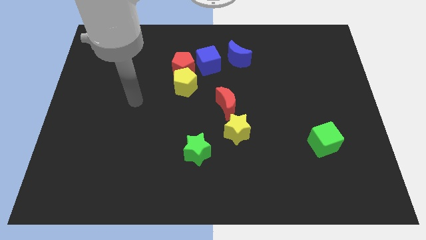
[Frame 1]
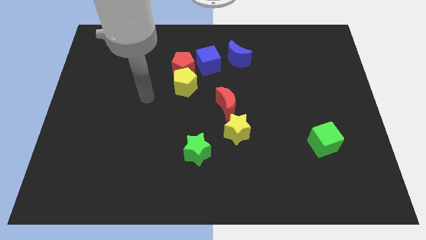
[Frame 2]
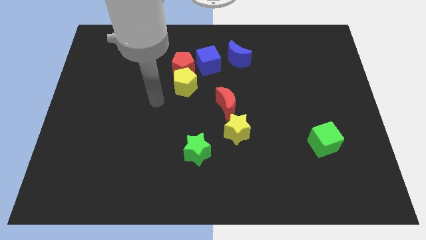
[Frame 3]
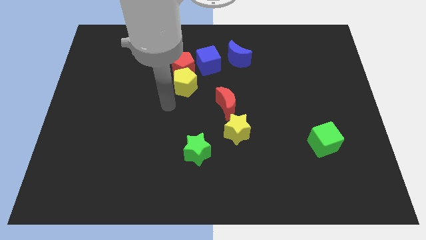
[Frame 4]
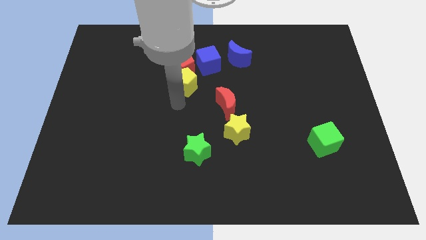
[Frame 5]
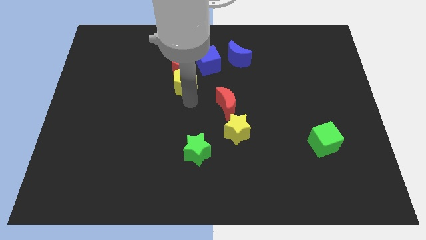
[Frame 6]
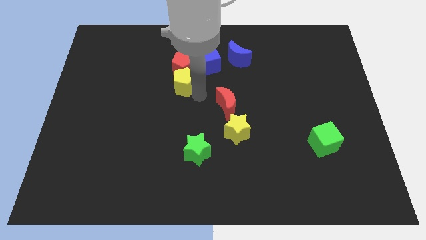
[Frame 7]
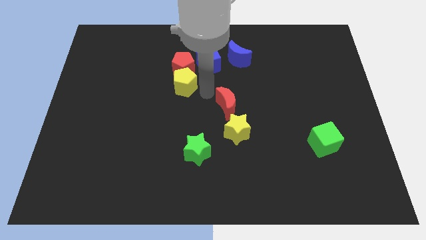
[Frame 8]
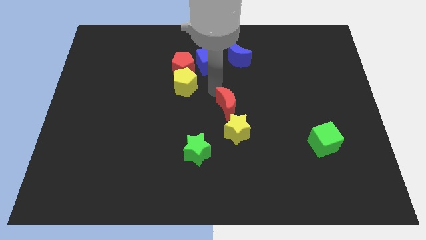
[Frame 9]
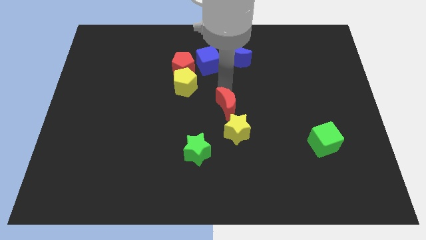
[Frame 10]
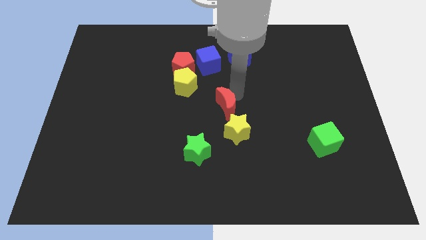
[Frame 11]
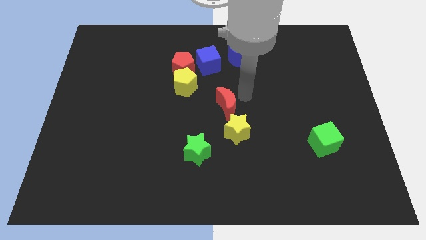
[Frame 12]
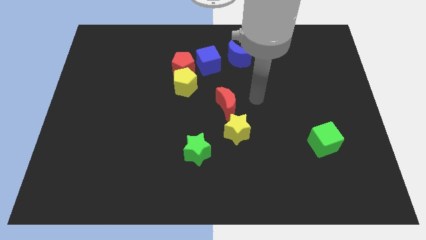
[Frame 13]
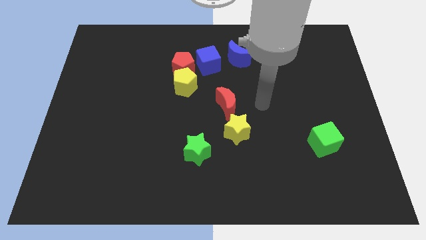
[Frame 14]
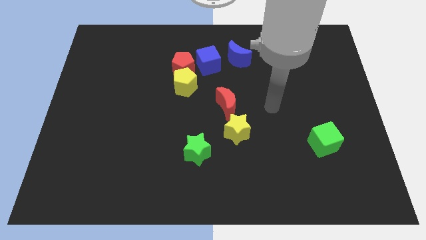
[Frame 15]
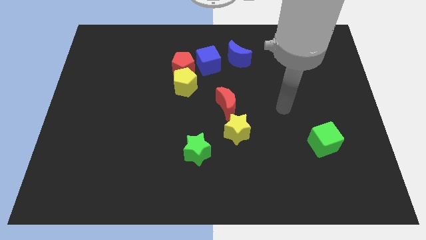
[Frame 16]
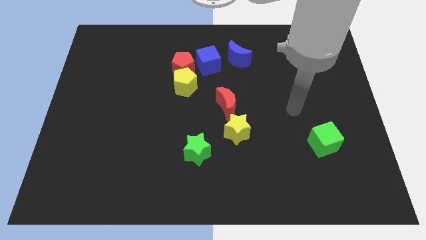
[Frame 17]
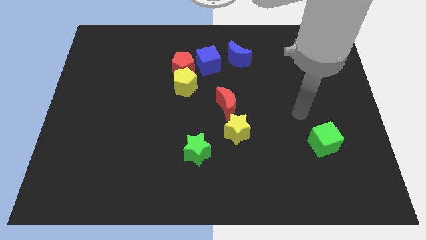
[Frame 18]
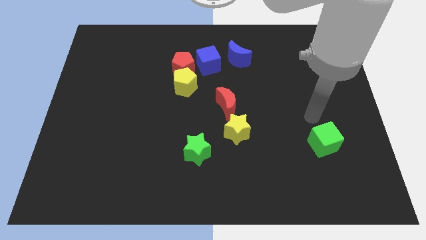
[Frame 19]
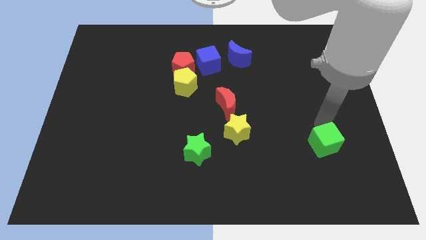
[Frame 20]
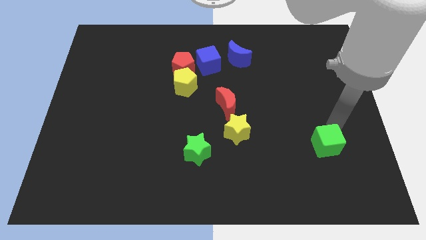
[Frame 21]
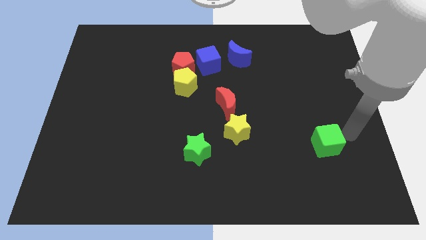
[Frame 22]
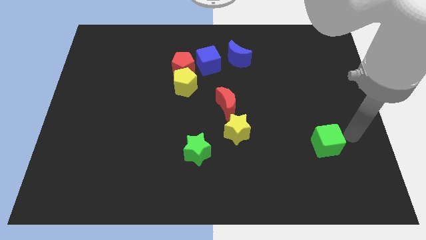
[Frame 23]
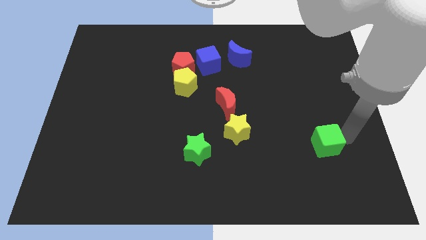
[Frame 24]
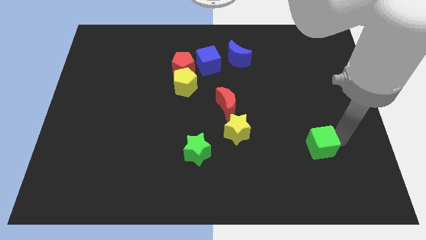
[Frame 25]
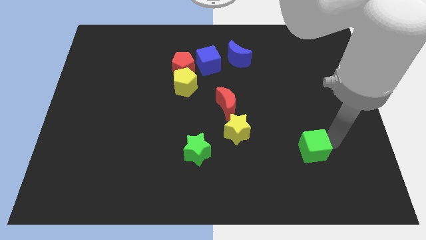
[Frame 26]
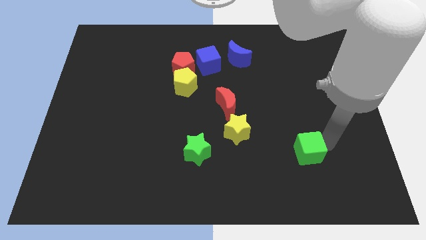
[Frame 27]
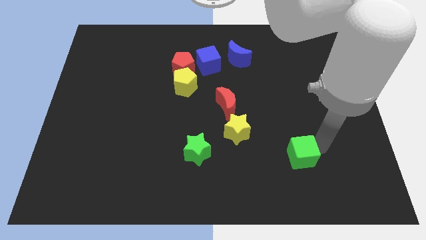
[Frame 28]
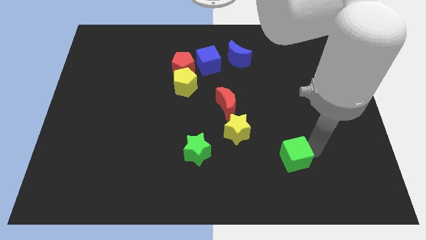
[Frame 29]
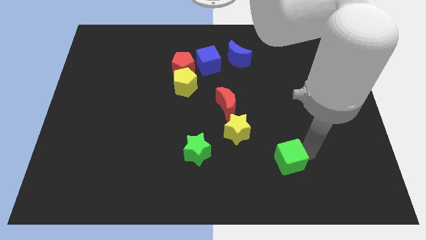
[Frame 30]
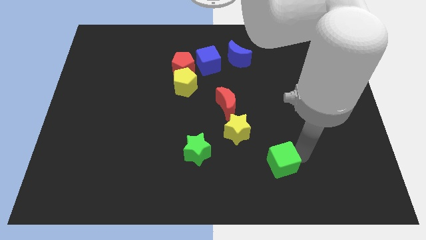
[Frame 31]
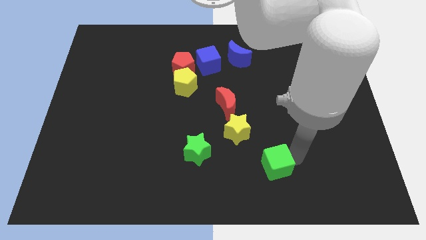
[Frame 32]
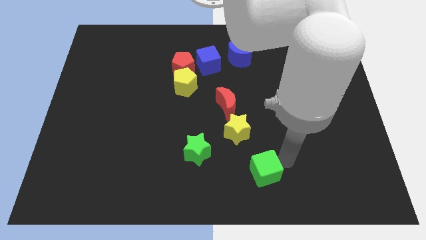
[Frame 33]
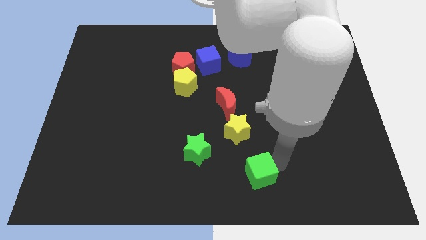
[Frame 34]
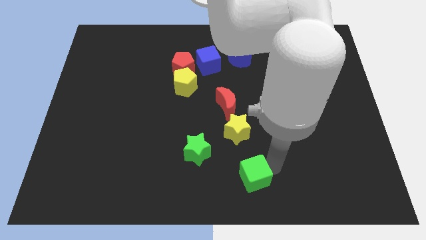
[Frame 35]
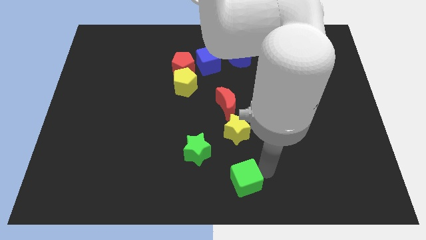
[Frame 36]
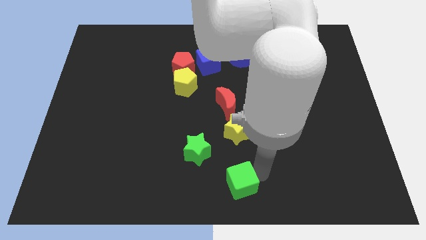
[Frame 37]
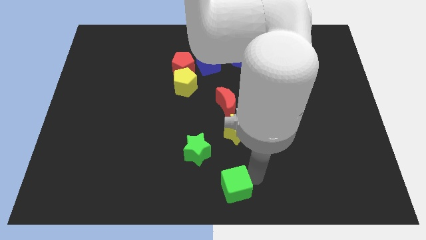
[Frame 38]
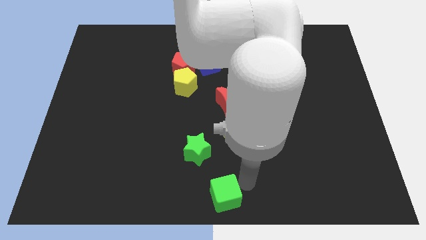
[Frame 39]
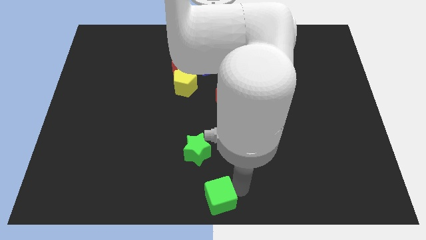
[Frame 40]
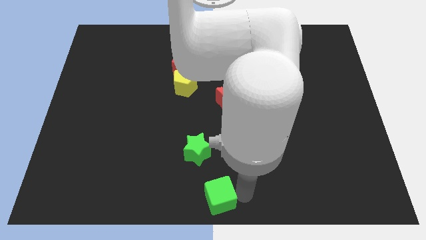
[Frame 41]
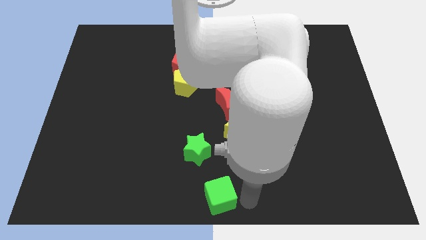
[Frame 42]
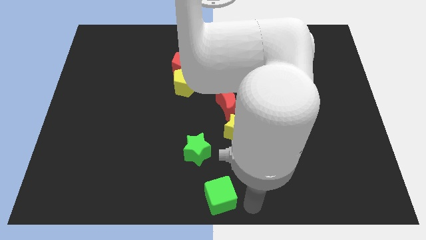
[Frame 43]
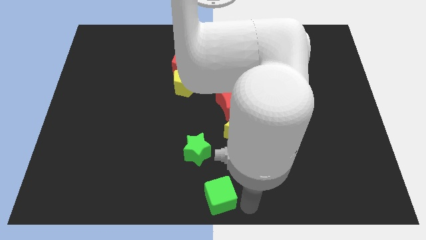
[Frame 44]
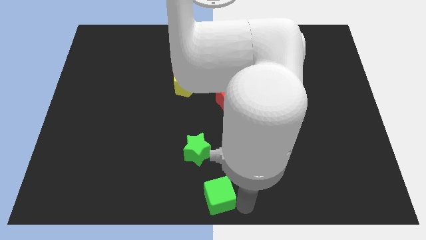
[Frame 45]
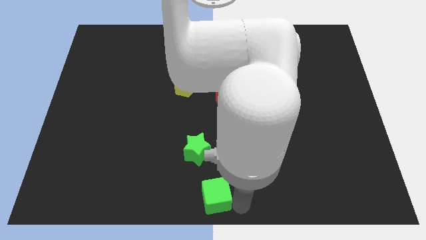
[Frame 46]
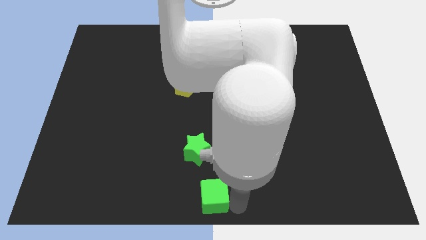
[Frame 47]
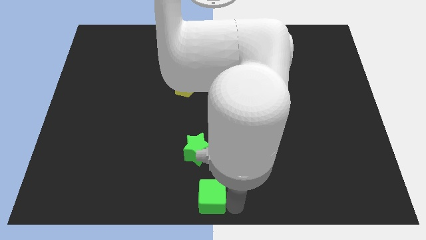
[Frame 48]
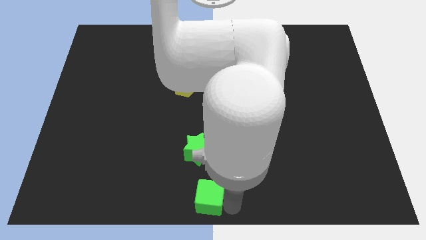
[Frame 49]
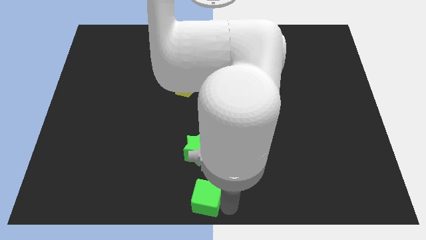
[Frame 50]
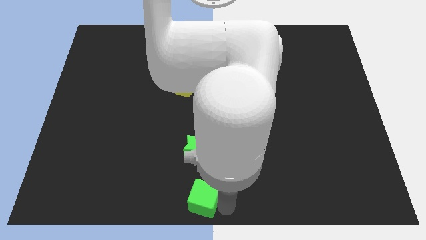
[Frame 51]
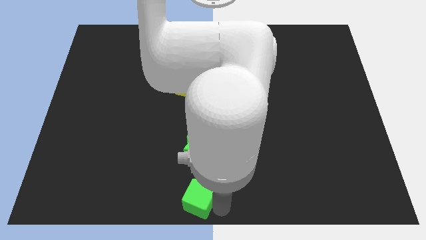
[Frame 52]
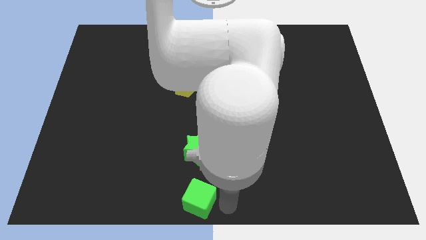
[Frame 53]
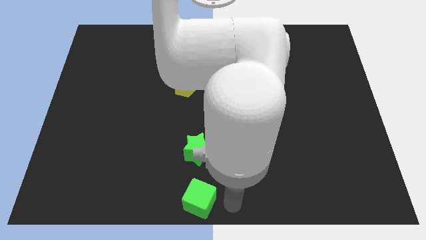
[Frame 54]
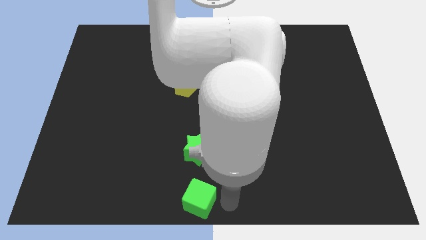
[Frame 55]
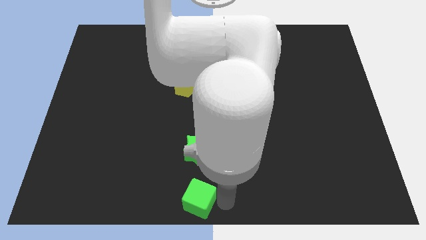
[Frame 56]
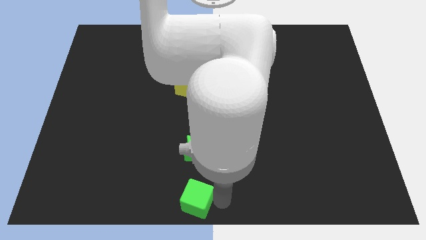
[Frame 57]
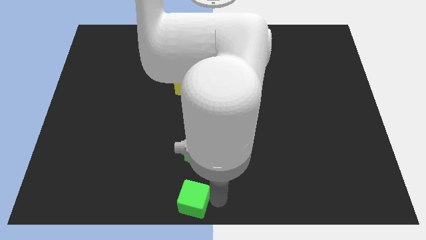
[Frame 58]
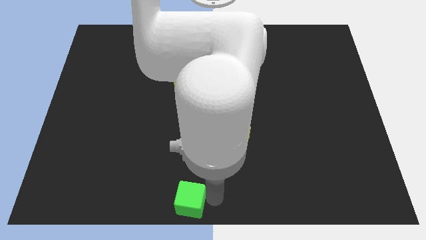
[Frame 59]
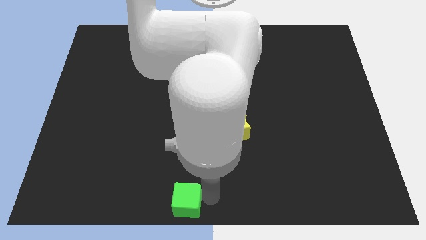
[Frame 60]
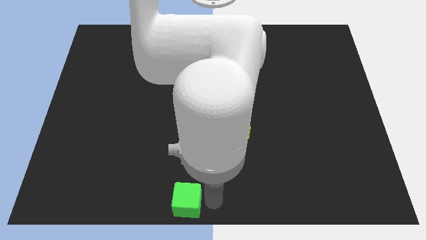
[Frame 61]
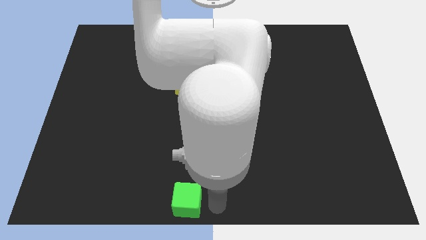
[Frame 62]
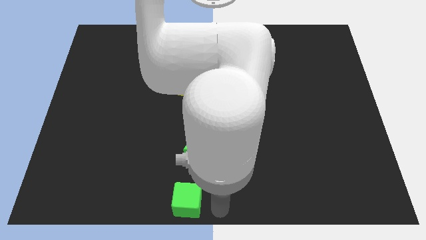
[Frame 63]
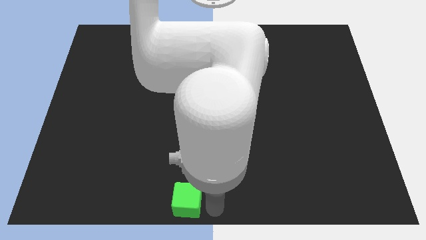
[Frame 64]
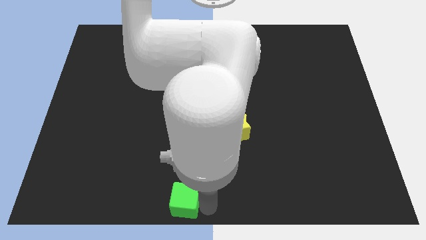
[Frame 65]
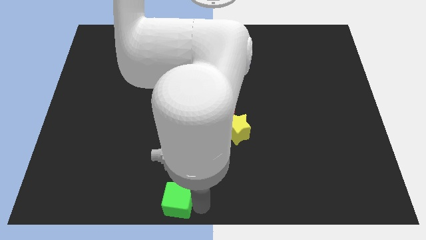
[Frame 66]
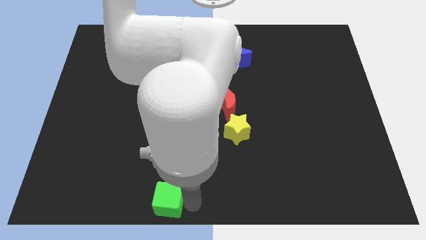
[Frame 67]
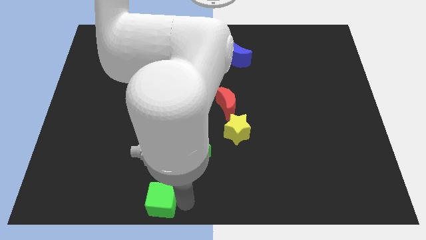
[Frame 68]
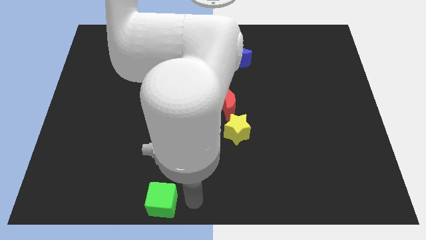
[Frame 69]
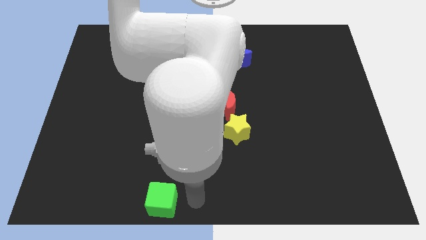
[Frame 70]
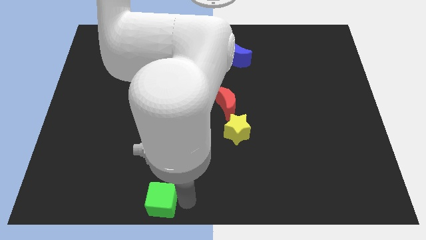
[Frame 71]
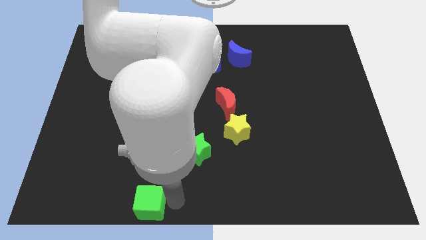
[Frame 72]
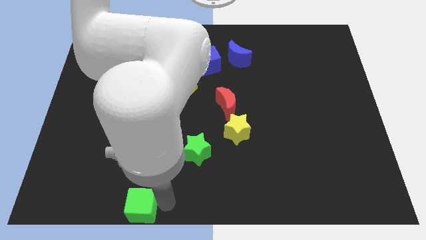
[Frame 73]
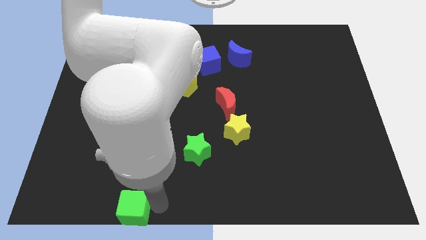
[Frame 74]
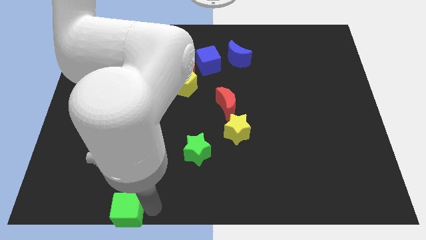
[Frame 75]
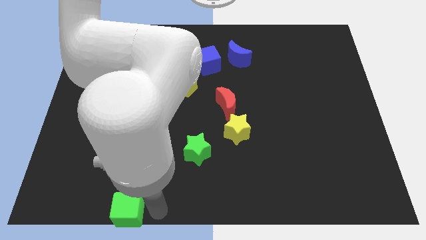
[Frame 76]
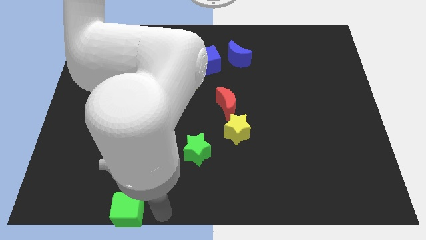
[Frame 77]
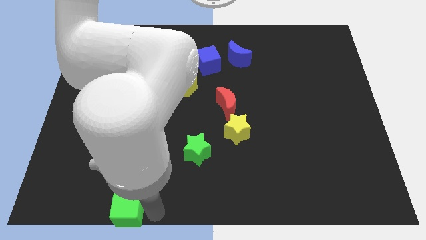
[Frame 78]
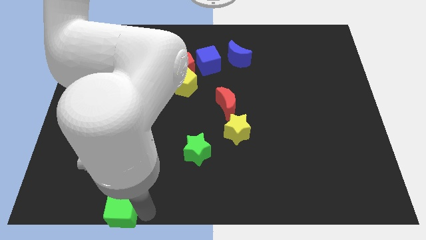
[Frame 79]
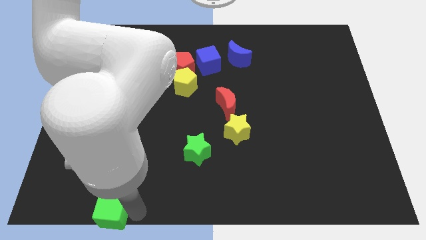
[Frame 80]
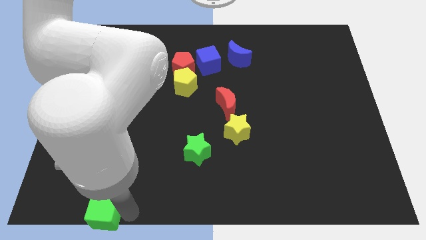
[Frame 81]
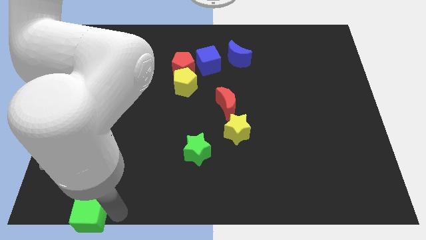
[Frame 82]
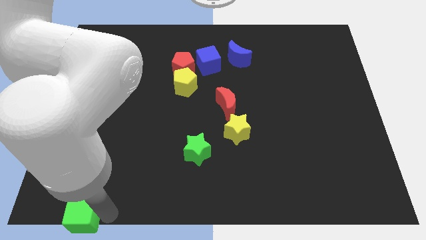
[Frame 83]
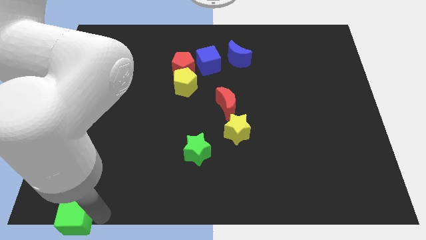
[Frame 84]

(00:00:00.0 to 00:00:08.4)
push the green cube to the bottom left
